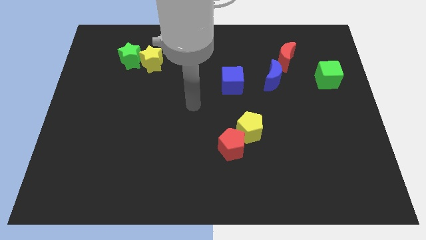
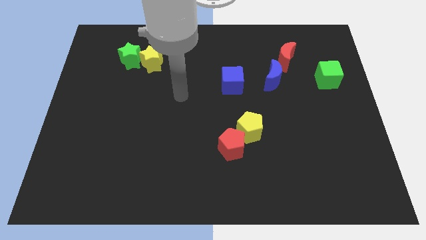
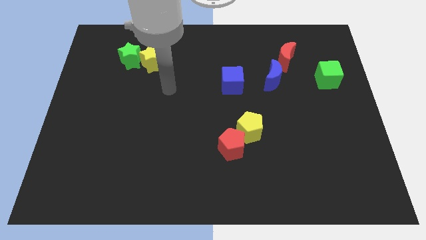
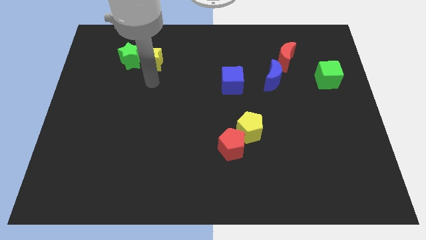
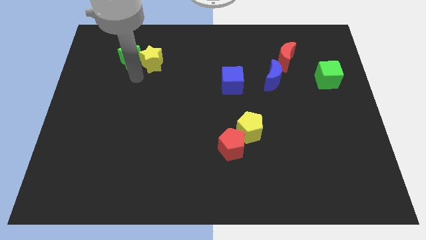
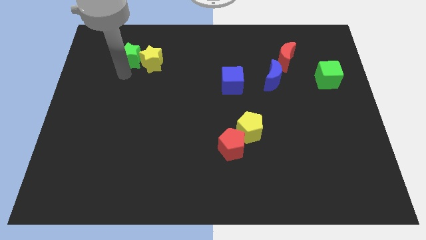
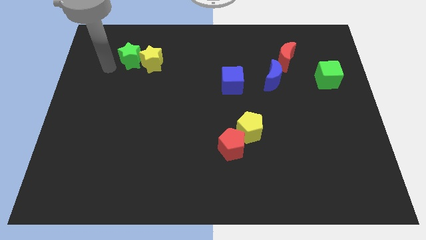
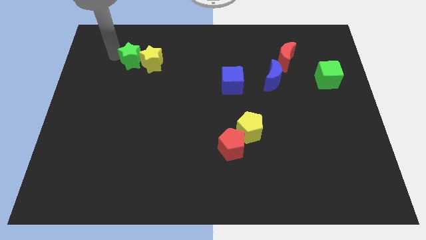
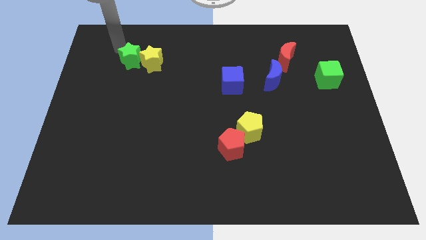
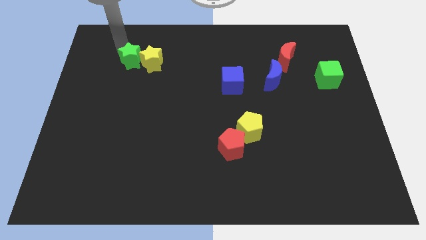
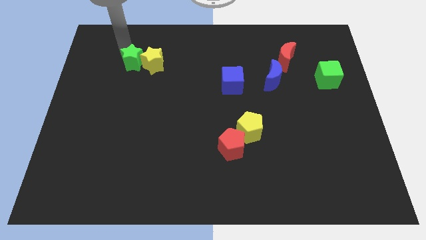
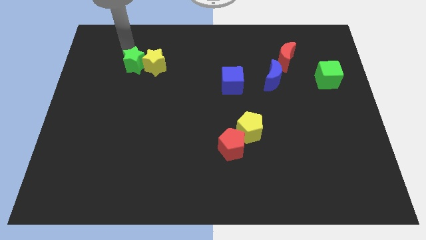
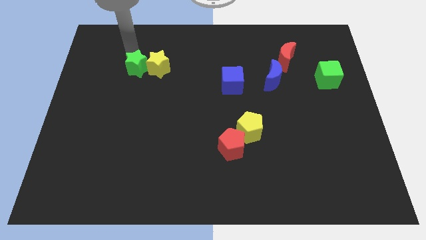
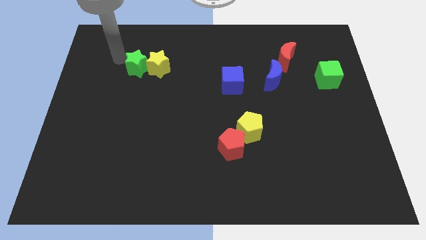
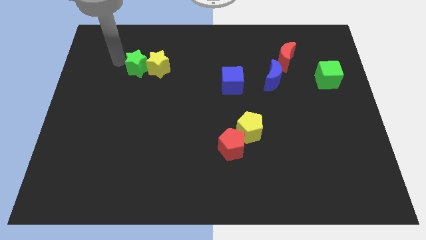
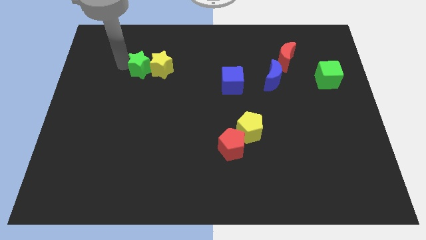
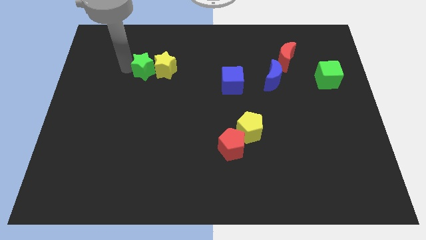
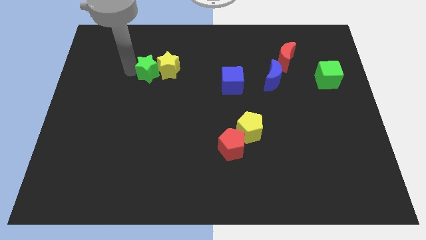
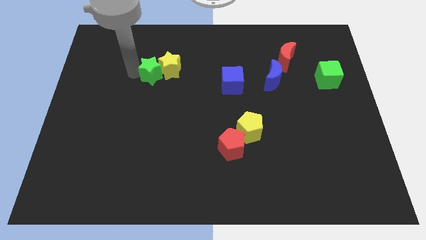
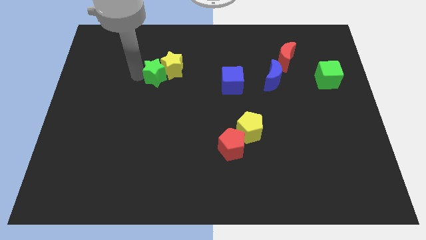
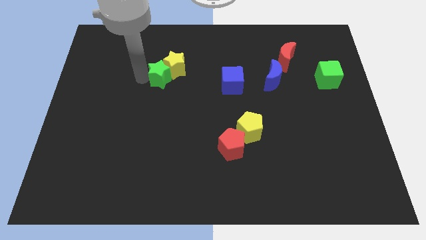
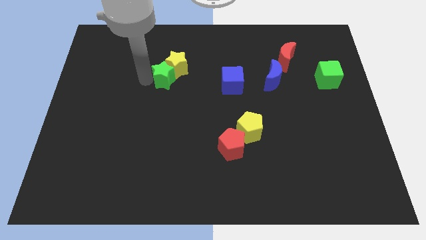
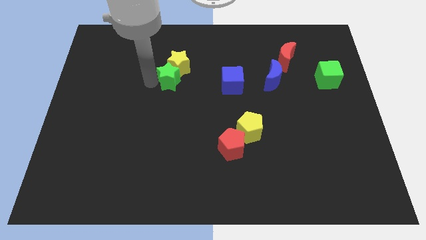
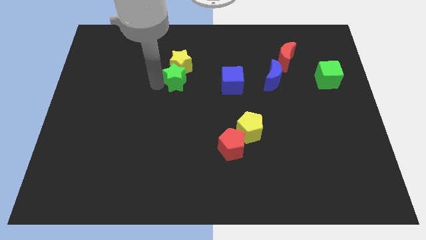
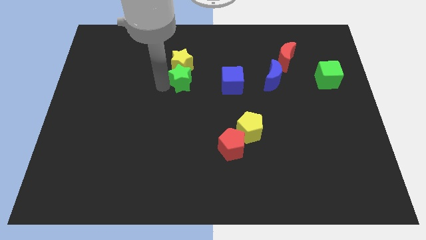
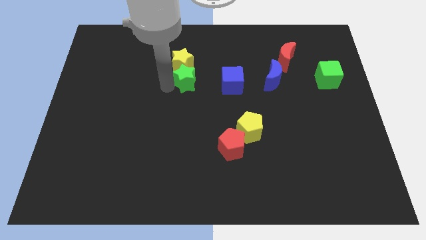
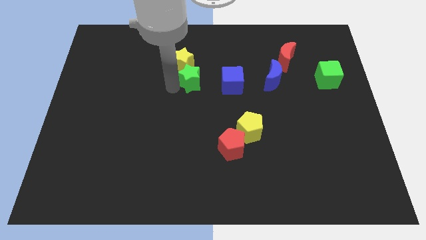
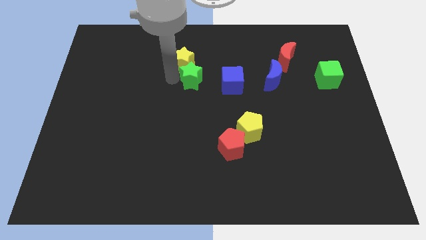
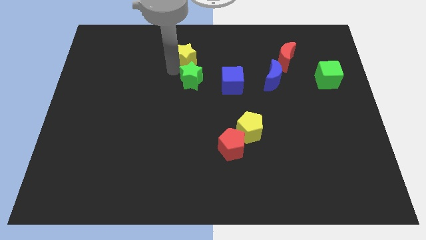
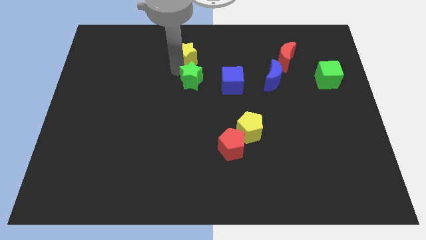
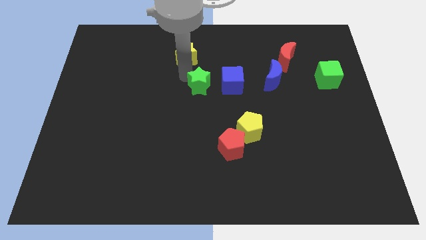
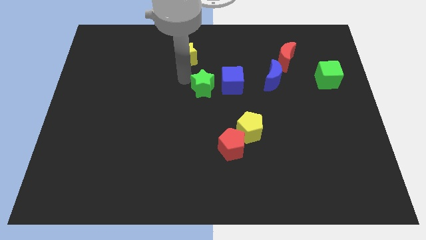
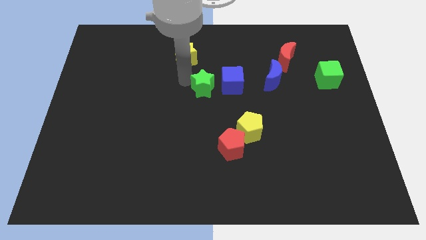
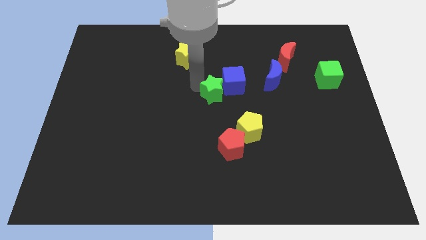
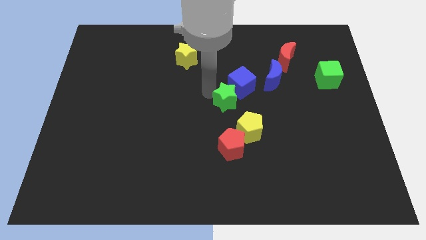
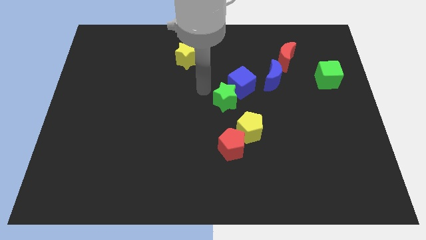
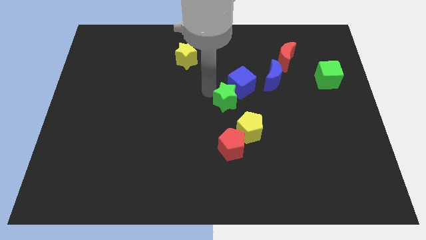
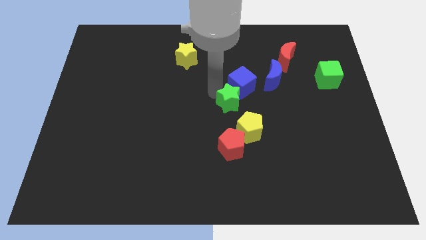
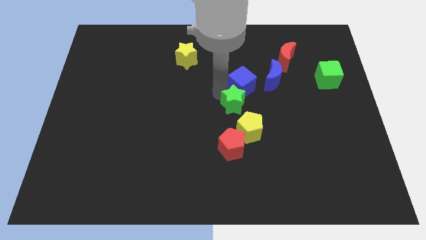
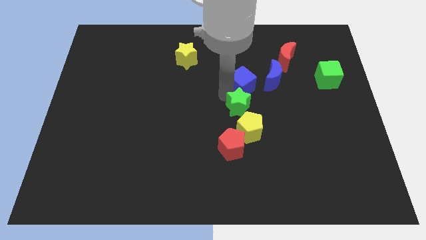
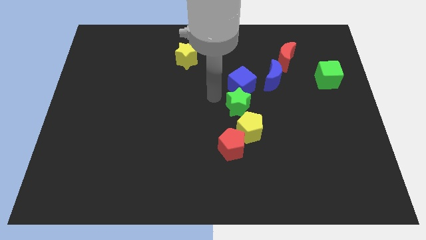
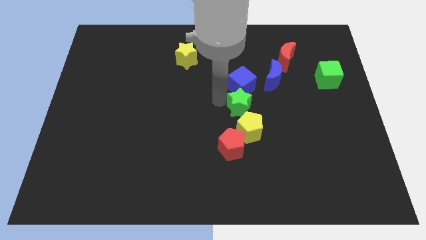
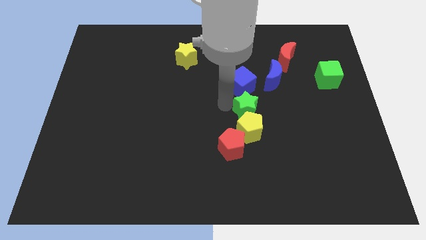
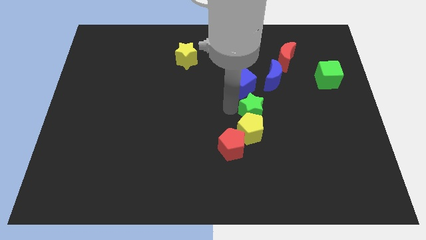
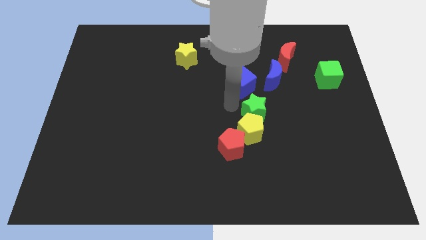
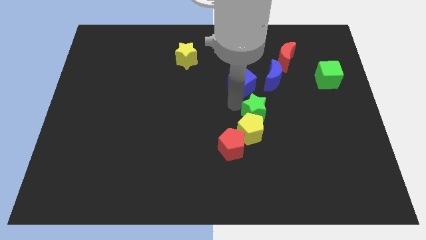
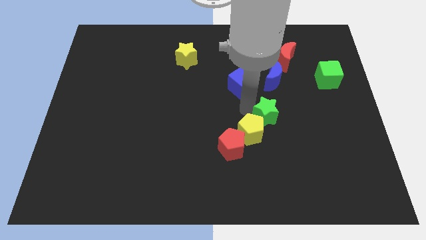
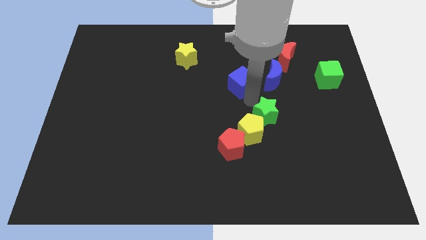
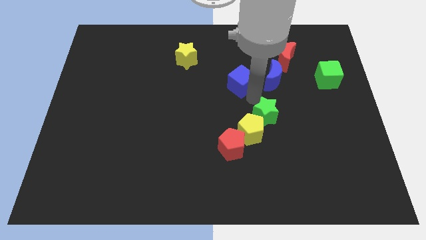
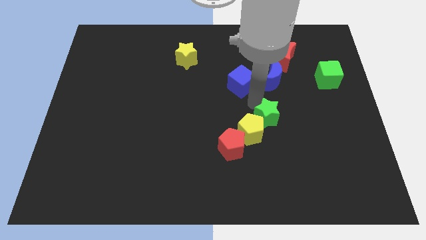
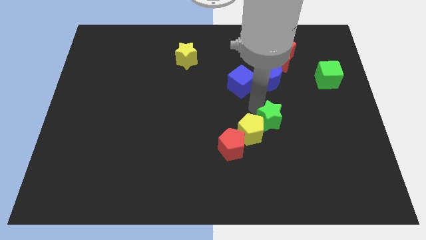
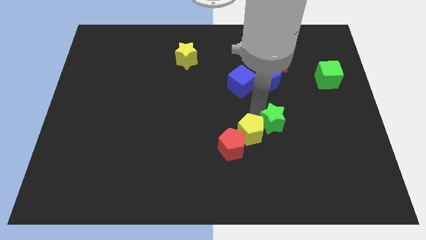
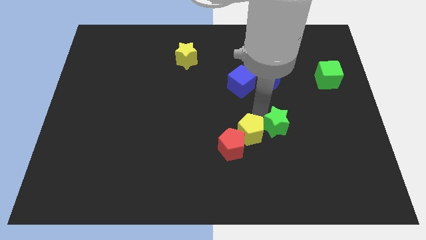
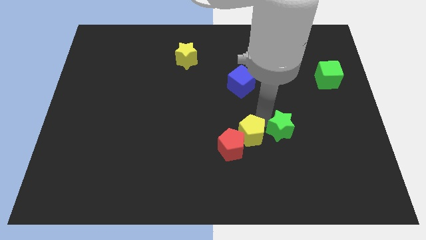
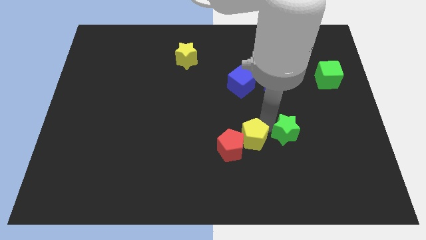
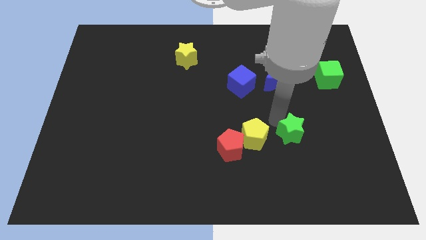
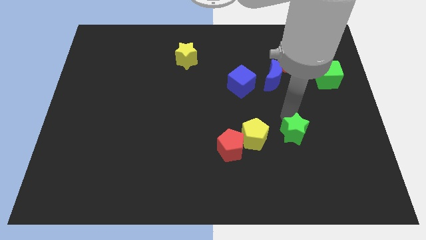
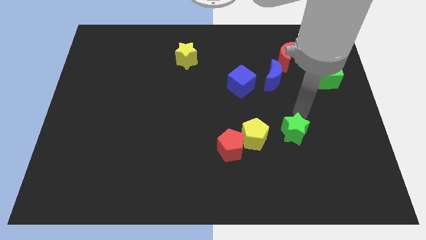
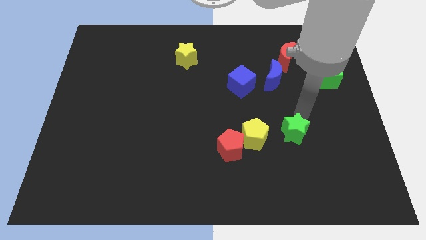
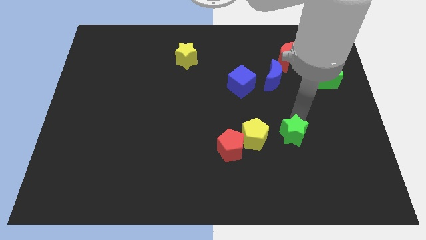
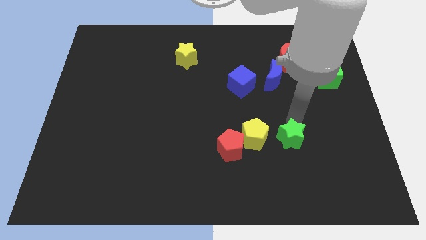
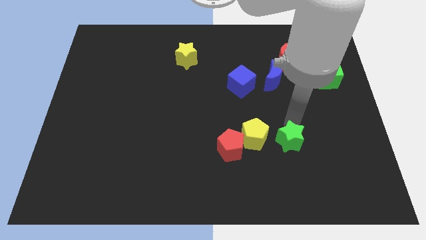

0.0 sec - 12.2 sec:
put the green star diagonally down and to the right of the yellow pentagon
